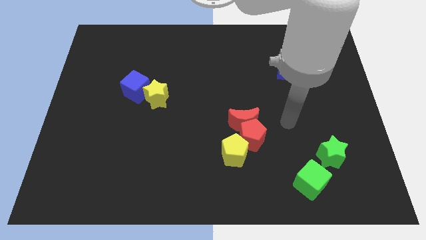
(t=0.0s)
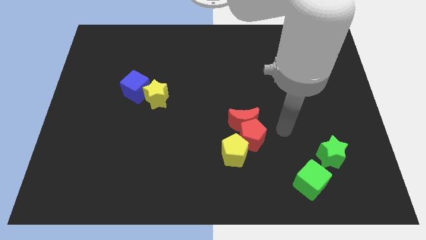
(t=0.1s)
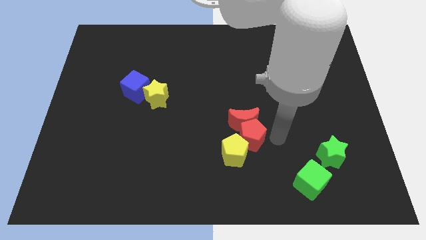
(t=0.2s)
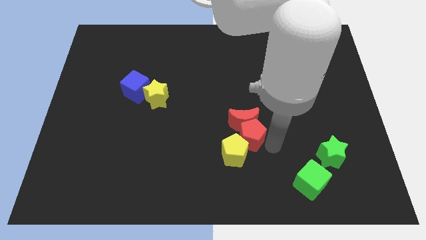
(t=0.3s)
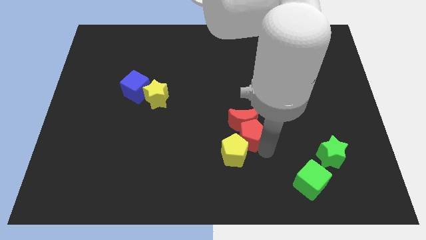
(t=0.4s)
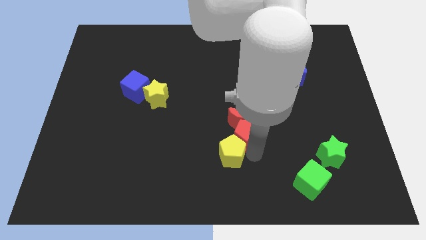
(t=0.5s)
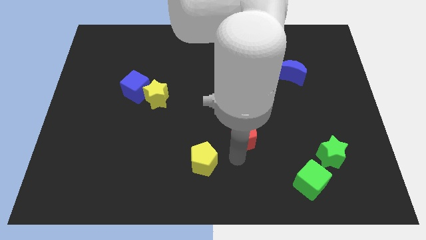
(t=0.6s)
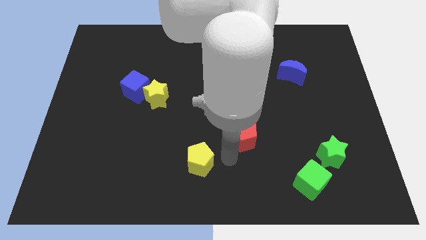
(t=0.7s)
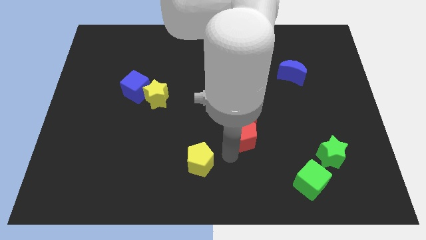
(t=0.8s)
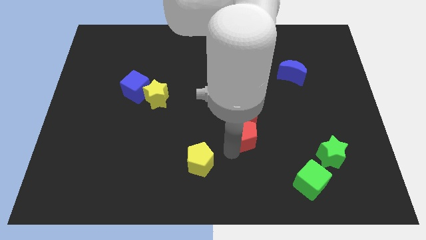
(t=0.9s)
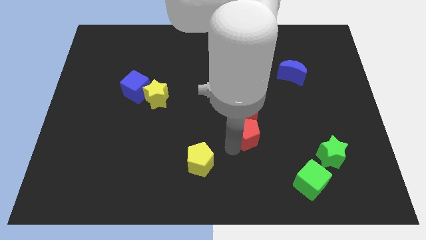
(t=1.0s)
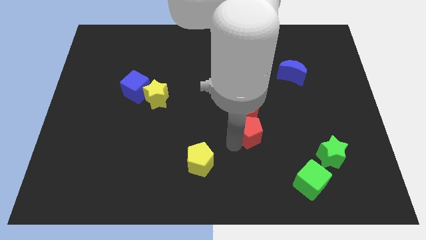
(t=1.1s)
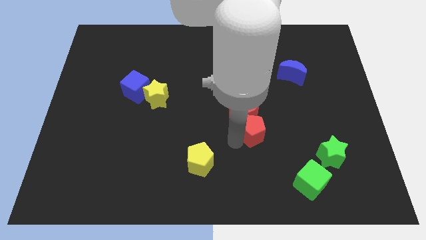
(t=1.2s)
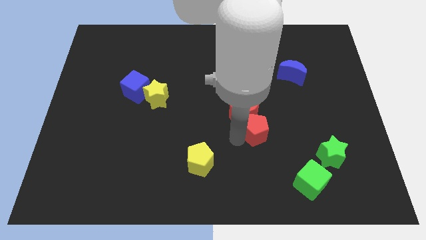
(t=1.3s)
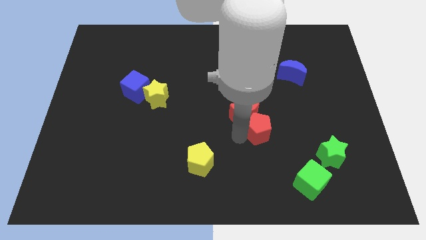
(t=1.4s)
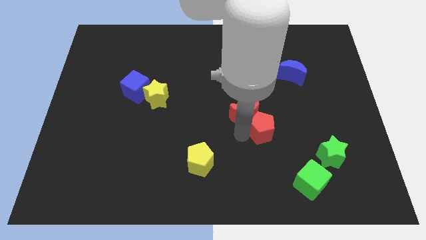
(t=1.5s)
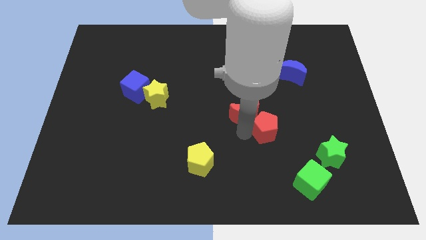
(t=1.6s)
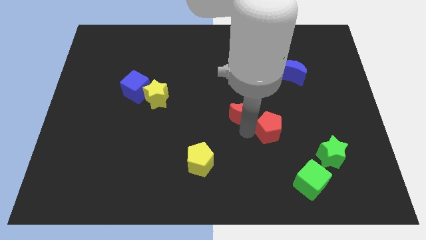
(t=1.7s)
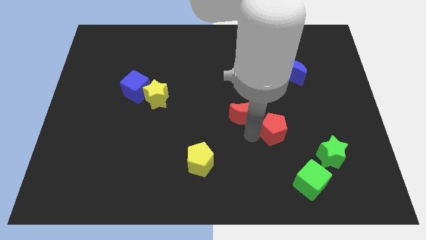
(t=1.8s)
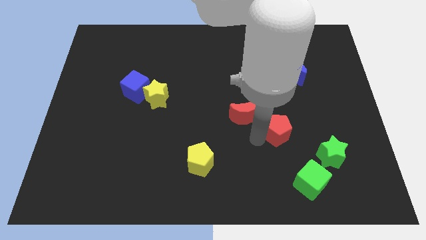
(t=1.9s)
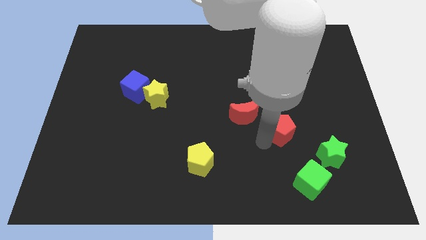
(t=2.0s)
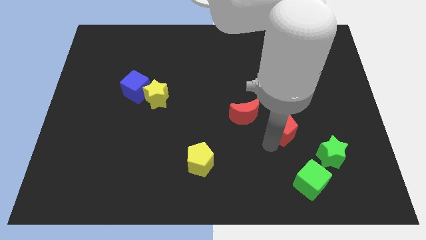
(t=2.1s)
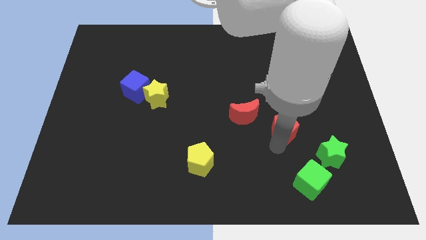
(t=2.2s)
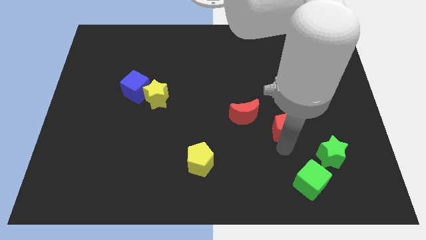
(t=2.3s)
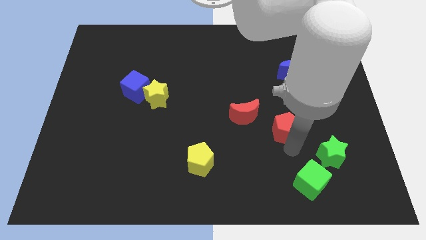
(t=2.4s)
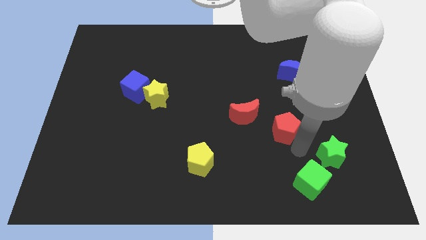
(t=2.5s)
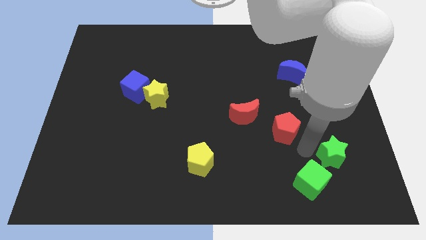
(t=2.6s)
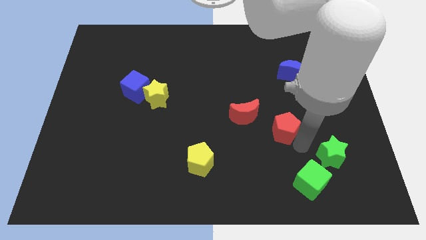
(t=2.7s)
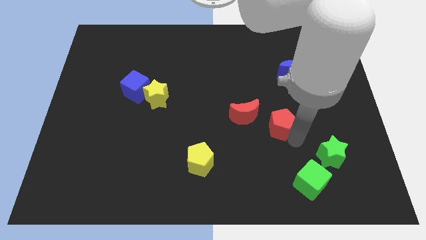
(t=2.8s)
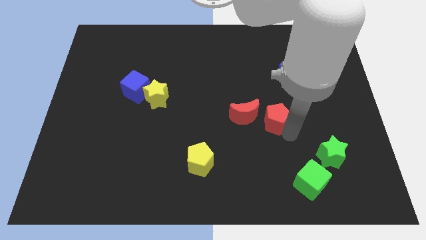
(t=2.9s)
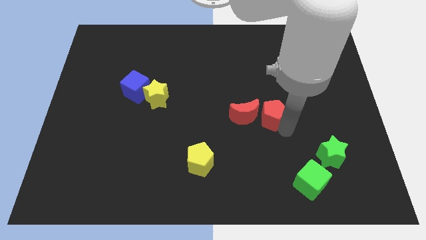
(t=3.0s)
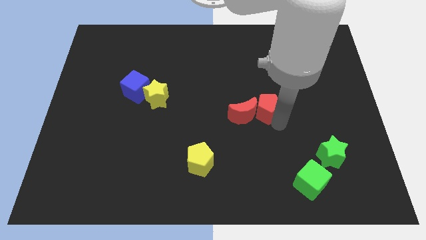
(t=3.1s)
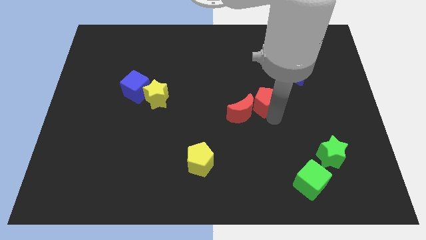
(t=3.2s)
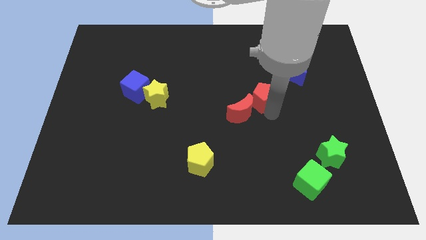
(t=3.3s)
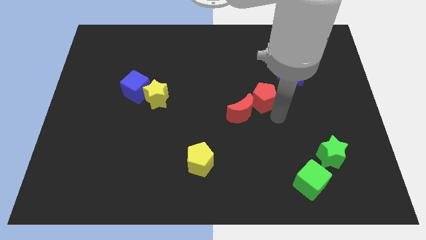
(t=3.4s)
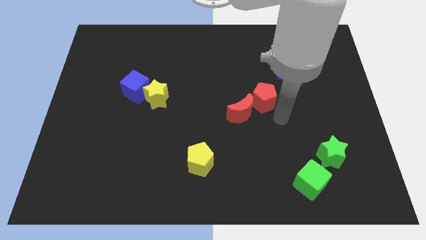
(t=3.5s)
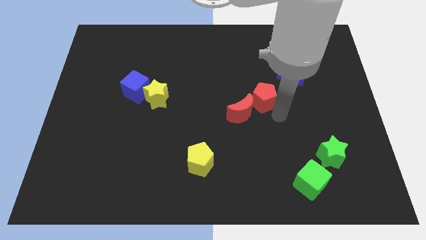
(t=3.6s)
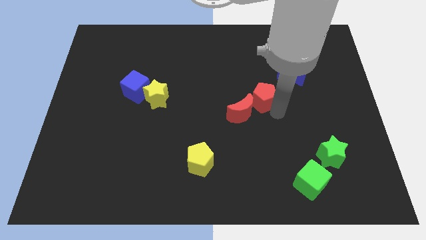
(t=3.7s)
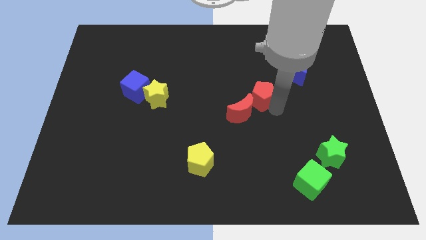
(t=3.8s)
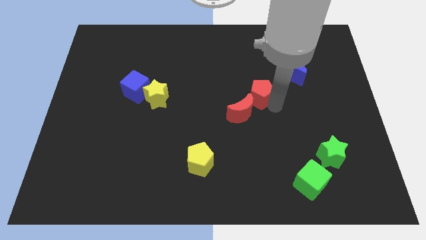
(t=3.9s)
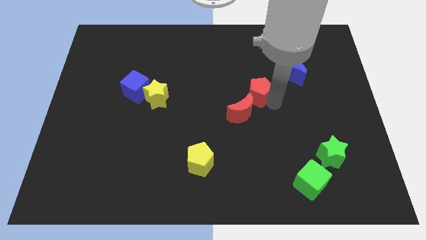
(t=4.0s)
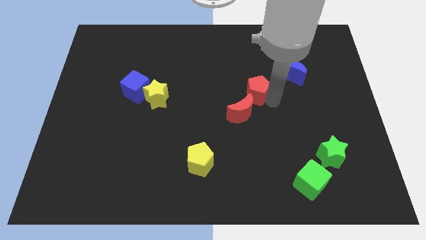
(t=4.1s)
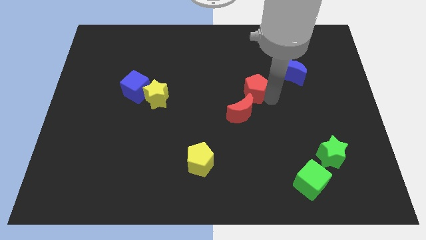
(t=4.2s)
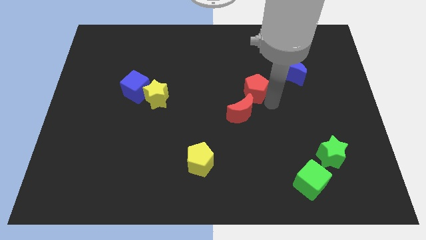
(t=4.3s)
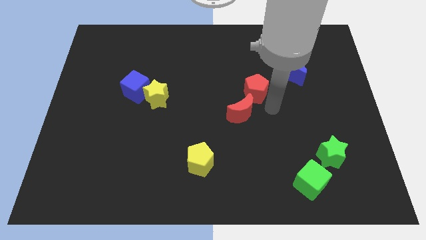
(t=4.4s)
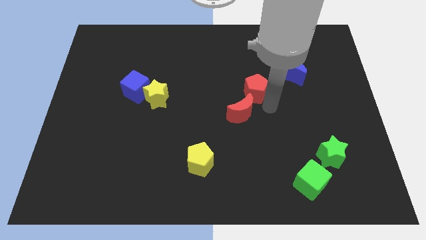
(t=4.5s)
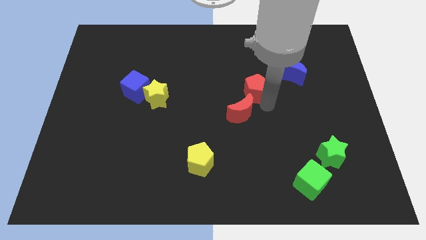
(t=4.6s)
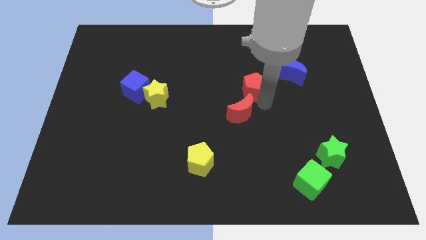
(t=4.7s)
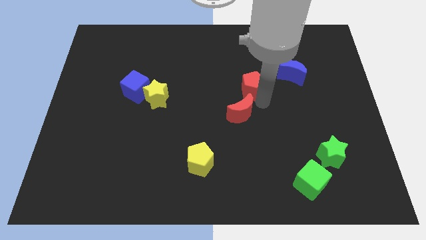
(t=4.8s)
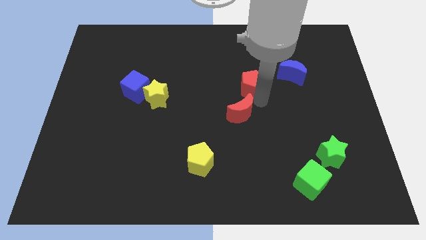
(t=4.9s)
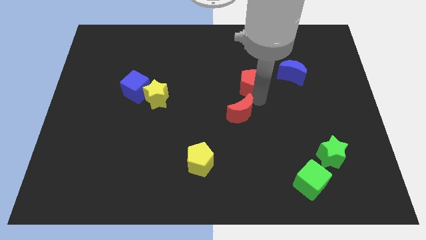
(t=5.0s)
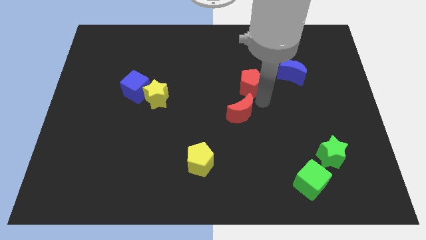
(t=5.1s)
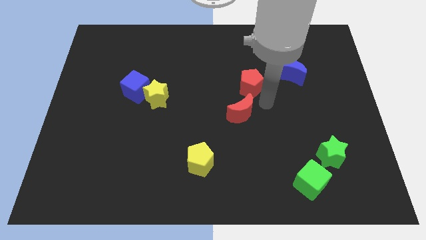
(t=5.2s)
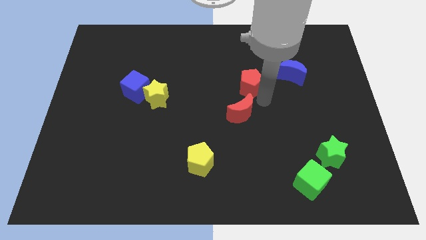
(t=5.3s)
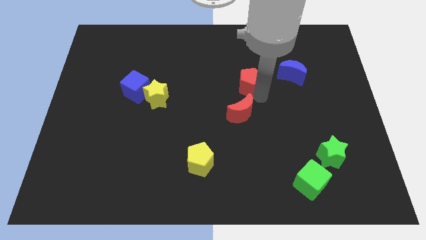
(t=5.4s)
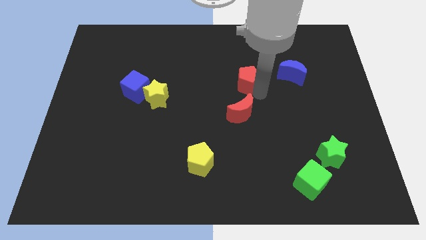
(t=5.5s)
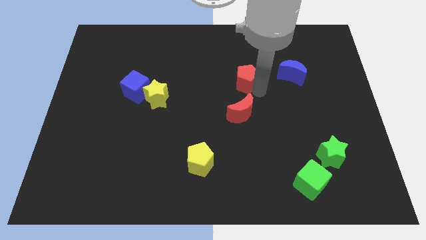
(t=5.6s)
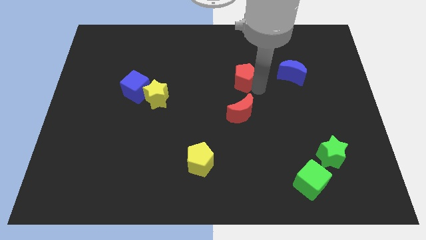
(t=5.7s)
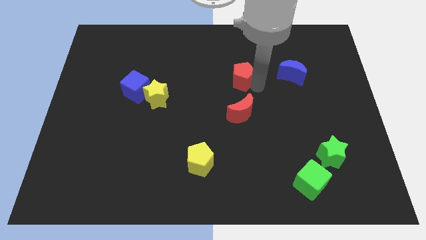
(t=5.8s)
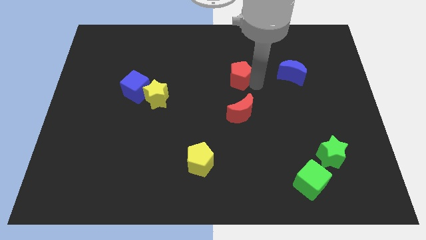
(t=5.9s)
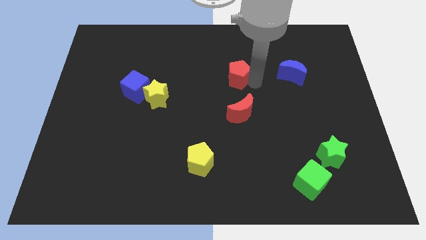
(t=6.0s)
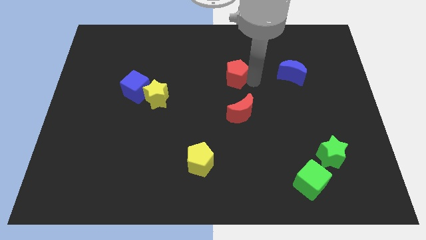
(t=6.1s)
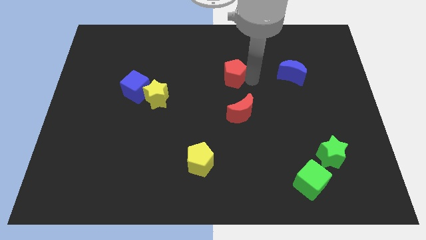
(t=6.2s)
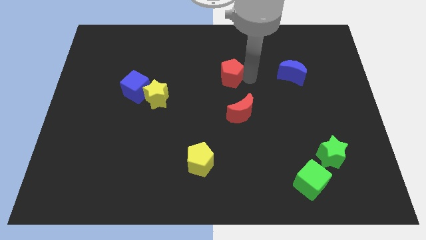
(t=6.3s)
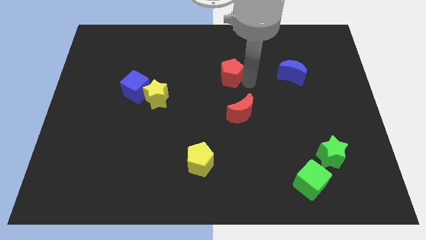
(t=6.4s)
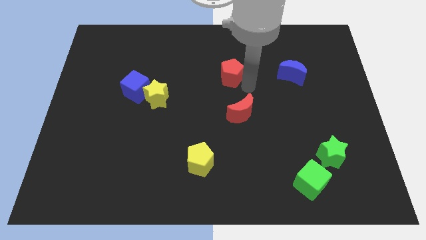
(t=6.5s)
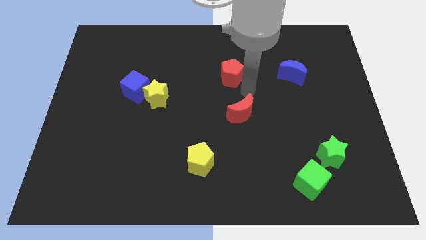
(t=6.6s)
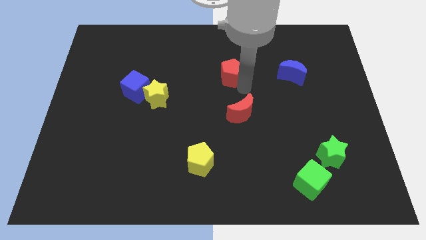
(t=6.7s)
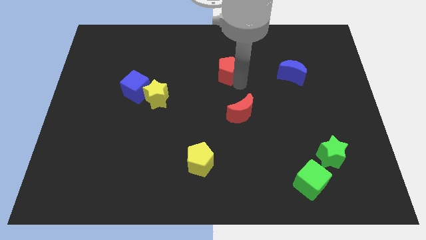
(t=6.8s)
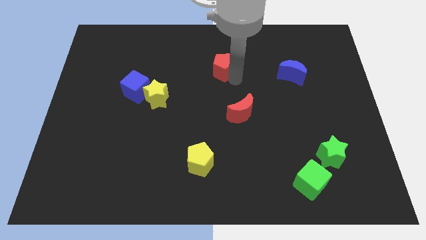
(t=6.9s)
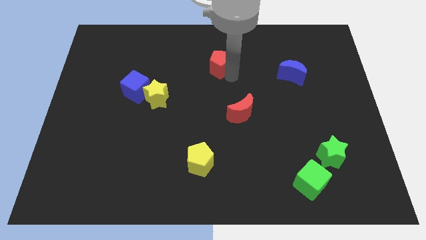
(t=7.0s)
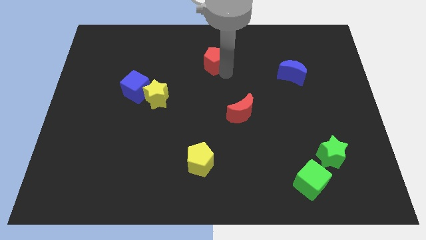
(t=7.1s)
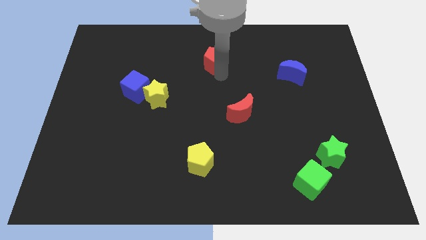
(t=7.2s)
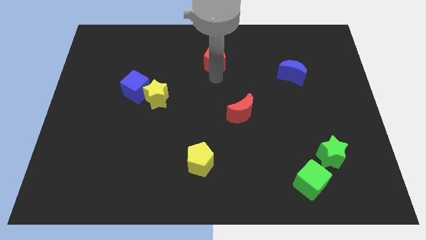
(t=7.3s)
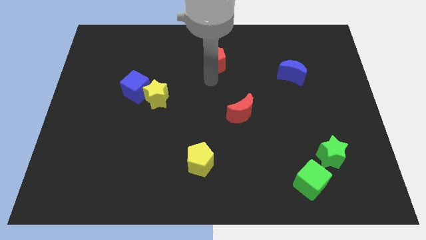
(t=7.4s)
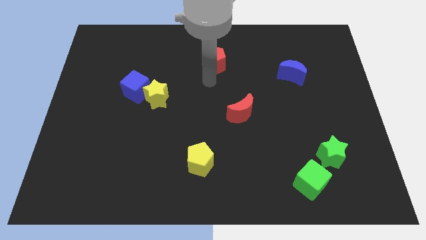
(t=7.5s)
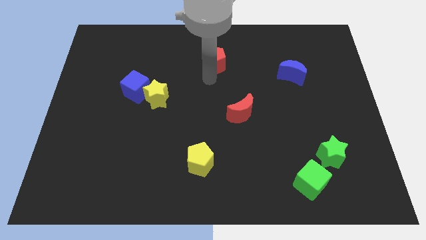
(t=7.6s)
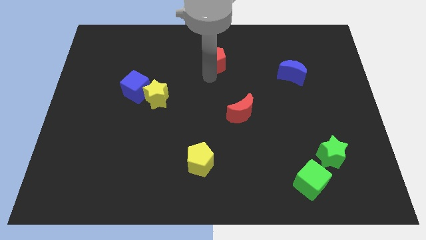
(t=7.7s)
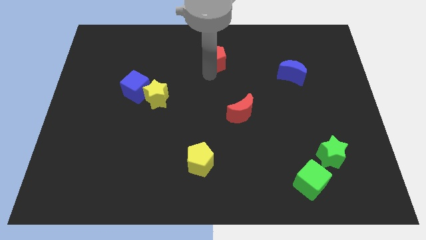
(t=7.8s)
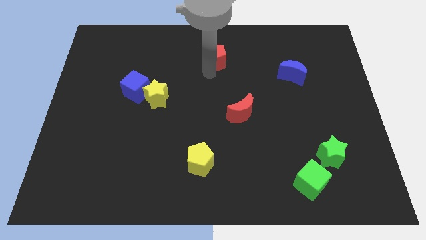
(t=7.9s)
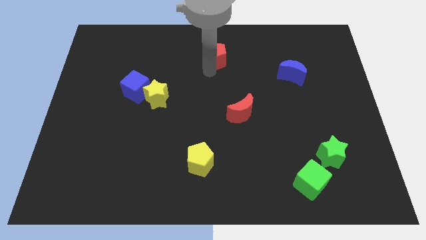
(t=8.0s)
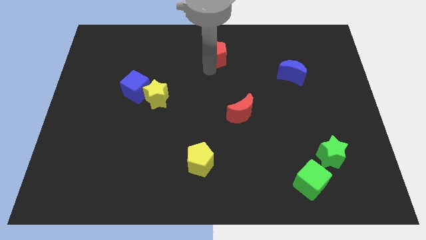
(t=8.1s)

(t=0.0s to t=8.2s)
move the red pentagon to the towards your base
